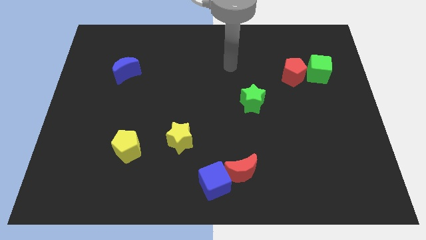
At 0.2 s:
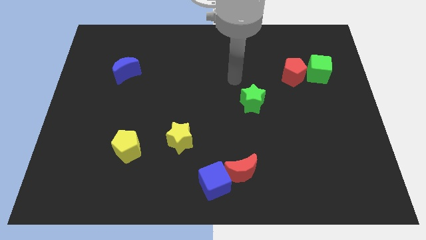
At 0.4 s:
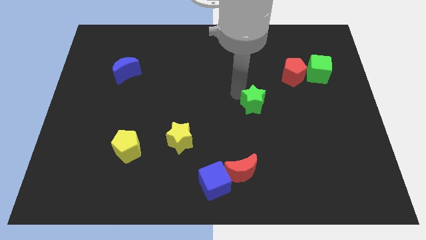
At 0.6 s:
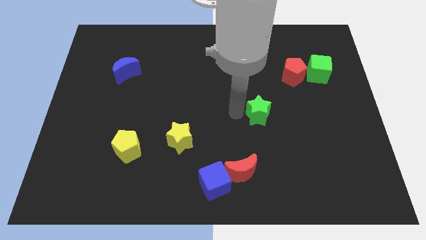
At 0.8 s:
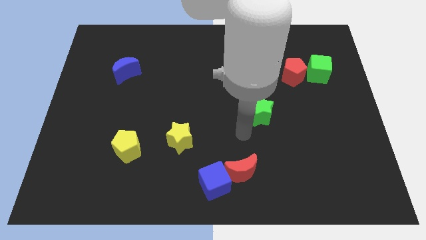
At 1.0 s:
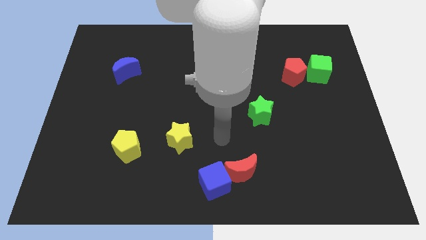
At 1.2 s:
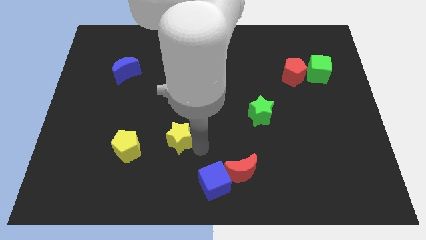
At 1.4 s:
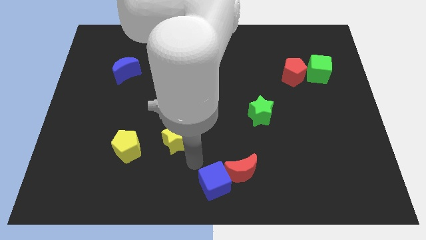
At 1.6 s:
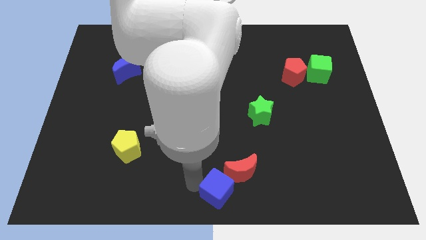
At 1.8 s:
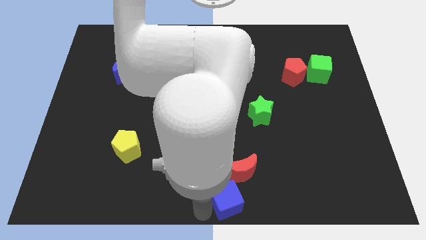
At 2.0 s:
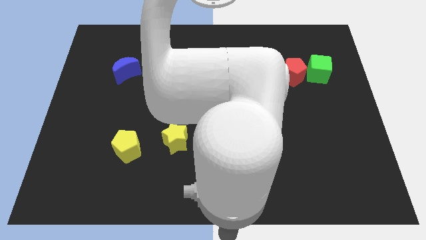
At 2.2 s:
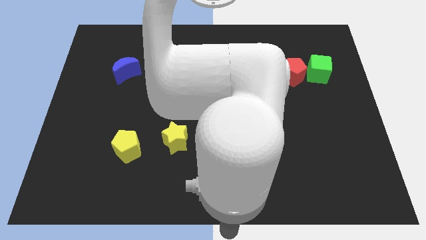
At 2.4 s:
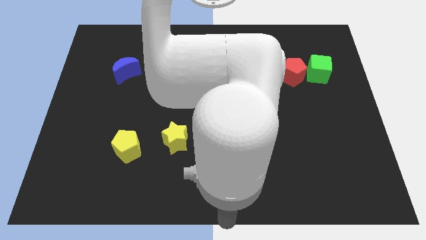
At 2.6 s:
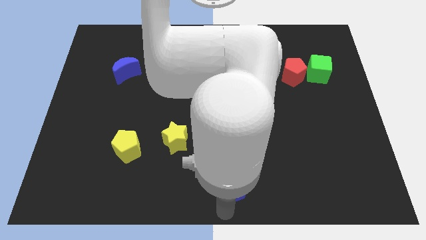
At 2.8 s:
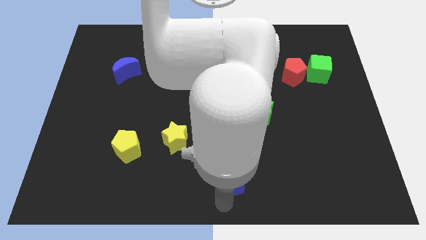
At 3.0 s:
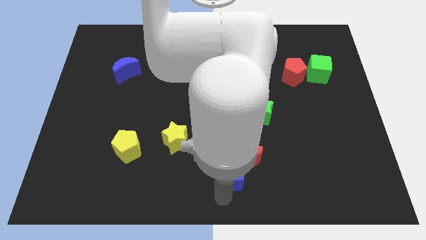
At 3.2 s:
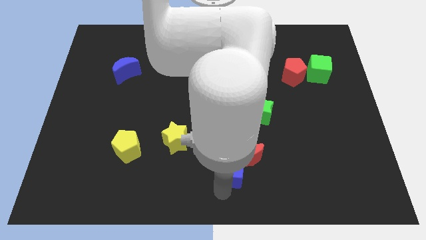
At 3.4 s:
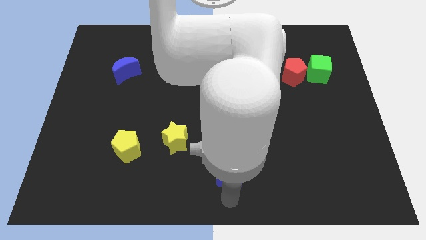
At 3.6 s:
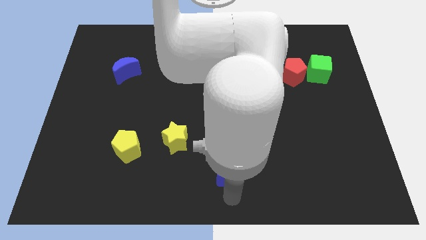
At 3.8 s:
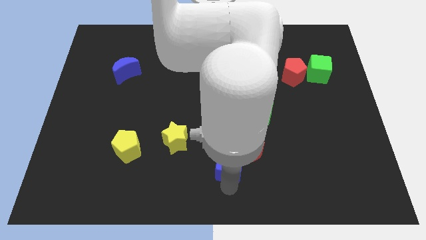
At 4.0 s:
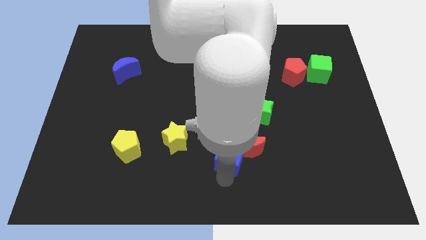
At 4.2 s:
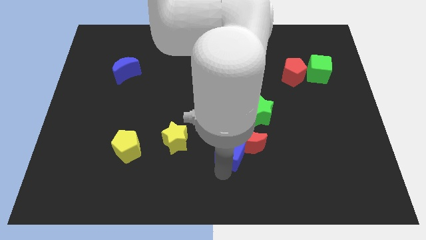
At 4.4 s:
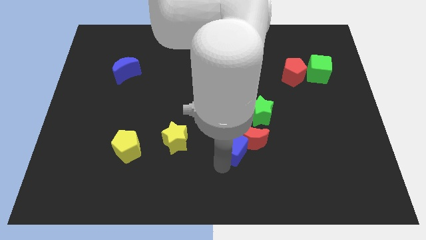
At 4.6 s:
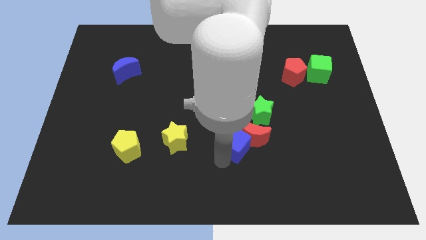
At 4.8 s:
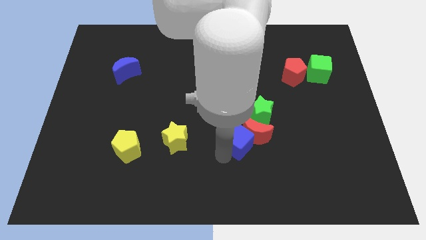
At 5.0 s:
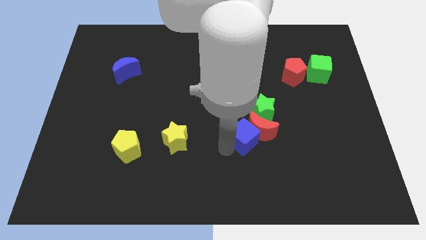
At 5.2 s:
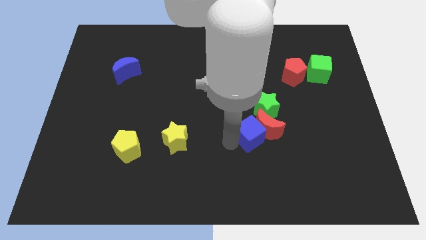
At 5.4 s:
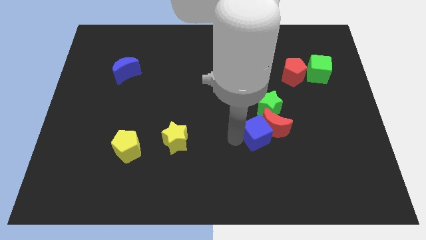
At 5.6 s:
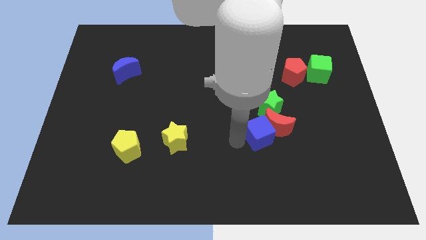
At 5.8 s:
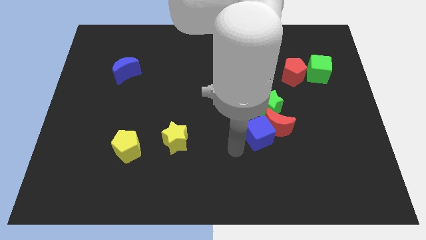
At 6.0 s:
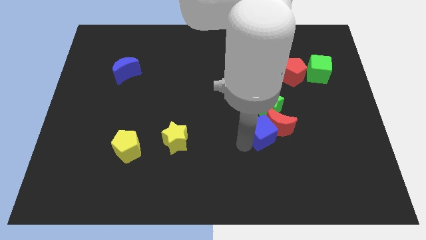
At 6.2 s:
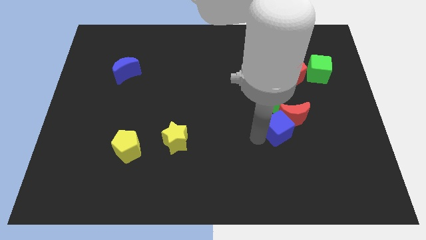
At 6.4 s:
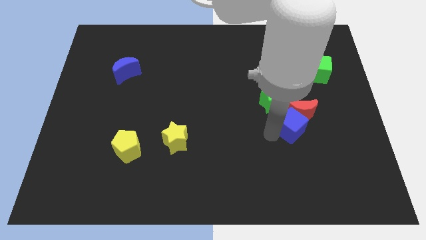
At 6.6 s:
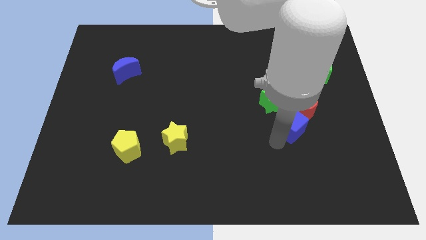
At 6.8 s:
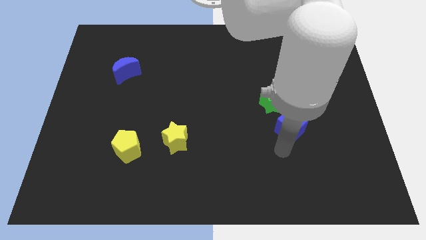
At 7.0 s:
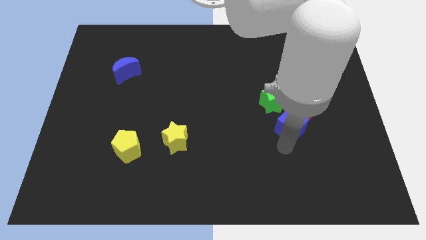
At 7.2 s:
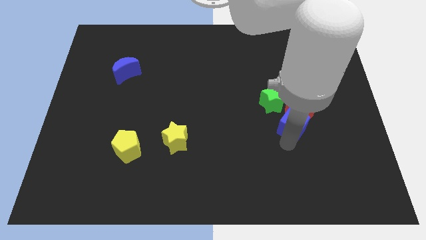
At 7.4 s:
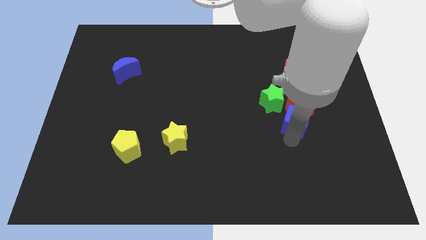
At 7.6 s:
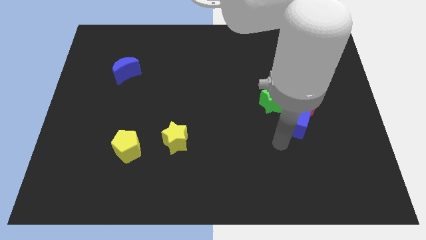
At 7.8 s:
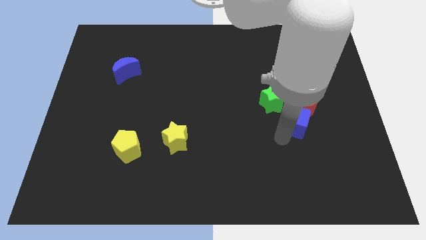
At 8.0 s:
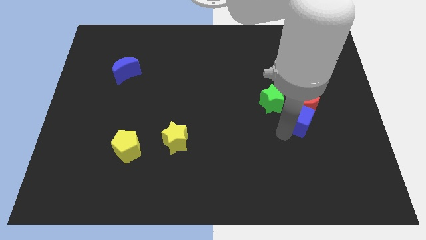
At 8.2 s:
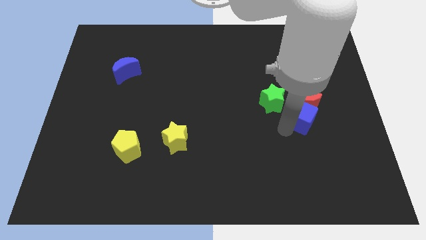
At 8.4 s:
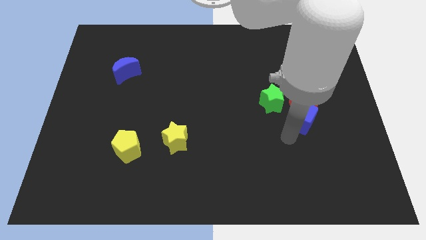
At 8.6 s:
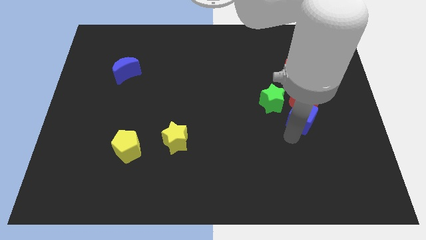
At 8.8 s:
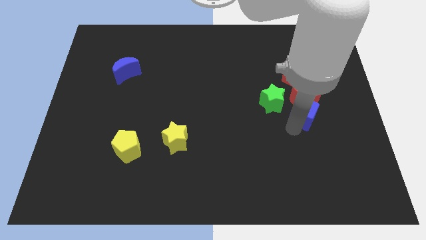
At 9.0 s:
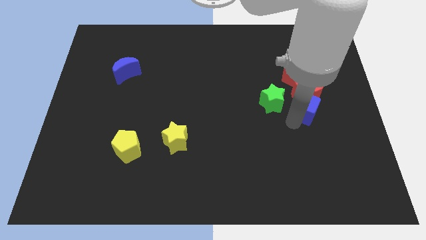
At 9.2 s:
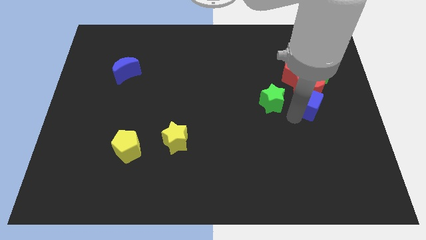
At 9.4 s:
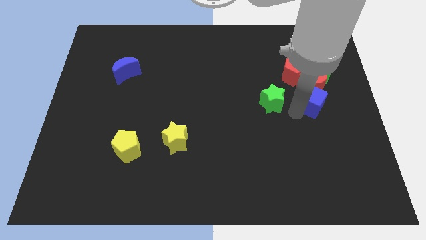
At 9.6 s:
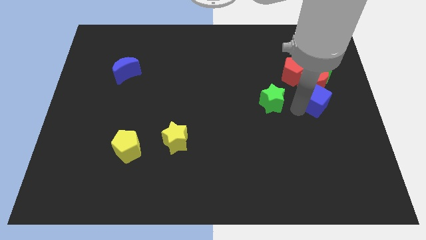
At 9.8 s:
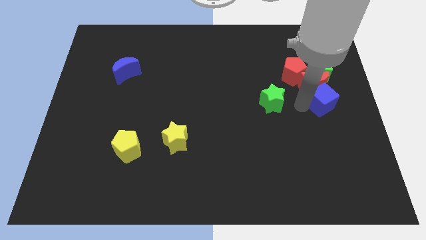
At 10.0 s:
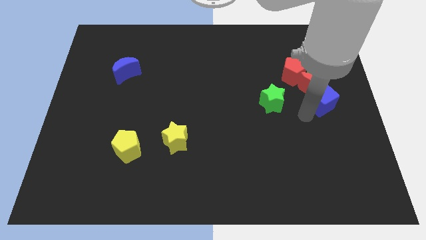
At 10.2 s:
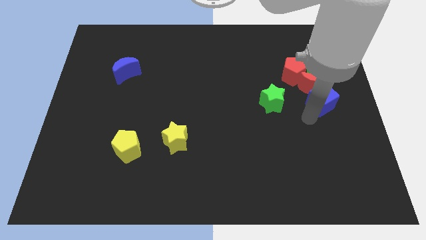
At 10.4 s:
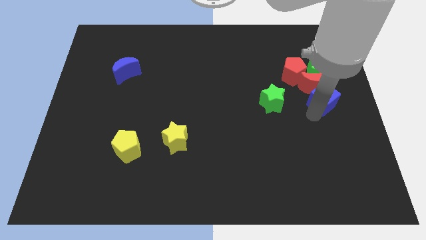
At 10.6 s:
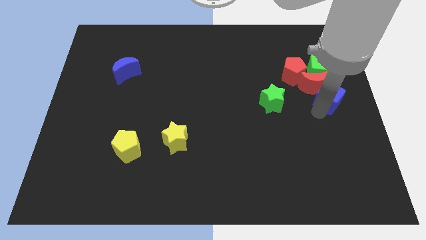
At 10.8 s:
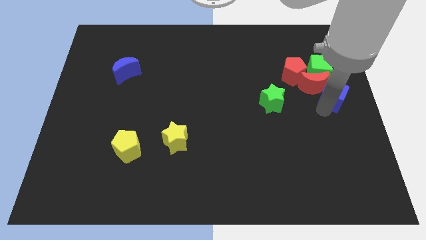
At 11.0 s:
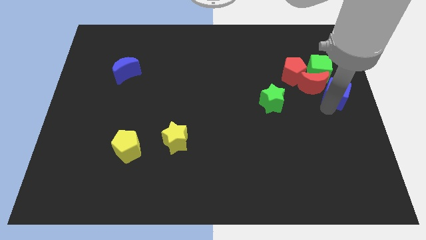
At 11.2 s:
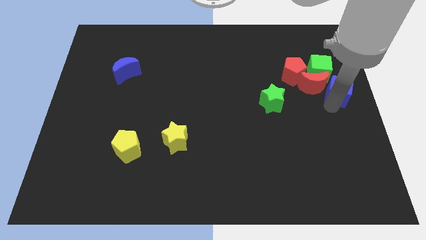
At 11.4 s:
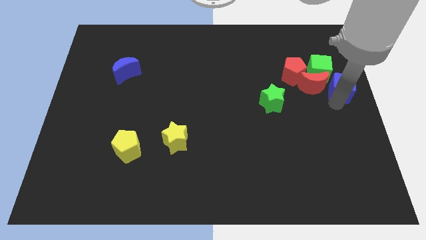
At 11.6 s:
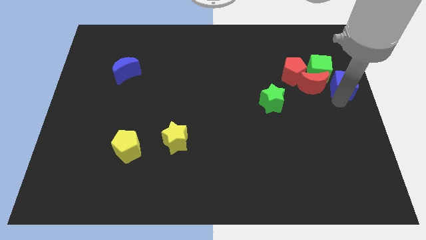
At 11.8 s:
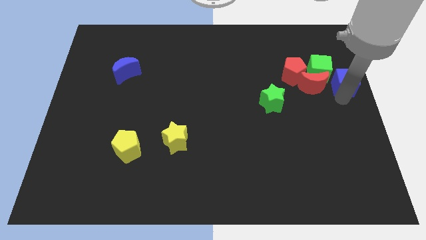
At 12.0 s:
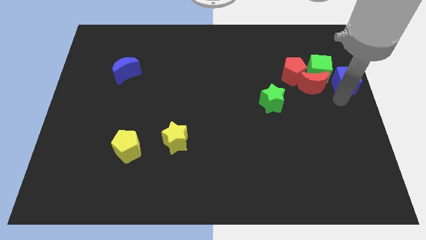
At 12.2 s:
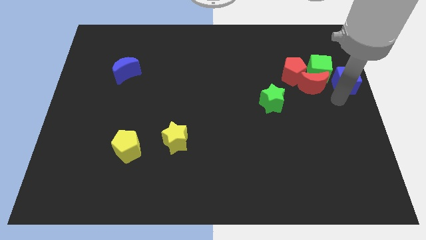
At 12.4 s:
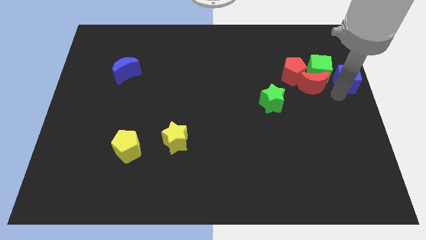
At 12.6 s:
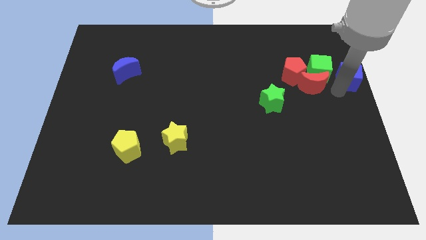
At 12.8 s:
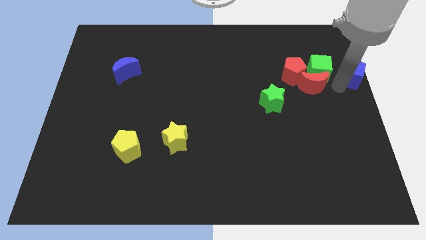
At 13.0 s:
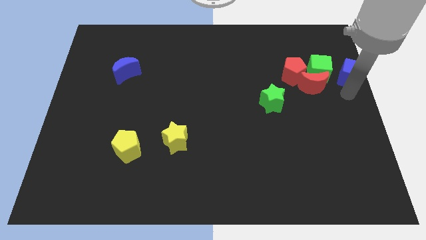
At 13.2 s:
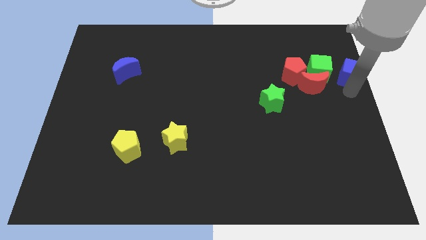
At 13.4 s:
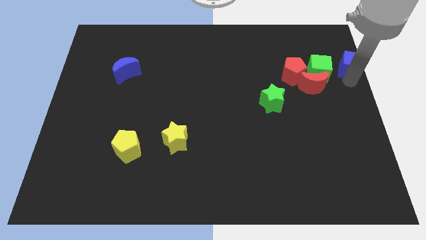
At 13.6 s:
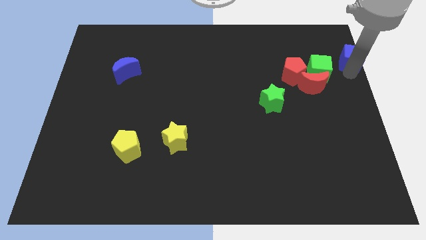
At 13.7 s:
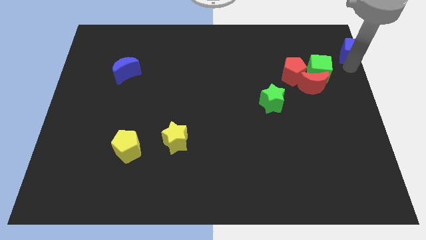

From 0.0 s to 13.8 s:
slide the blue cube to the top right
